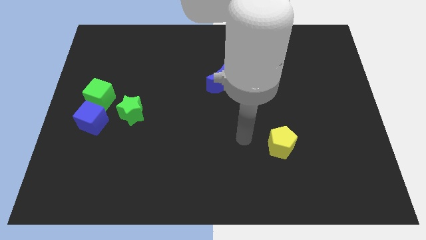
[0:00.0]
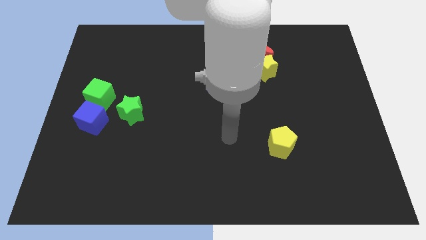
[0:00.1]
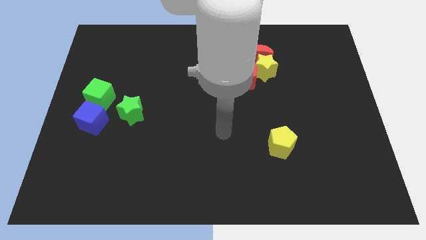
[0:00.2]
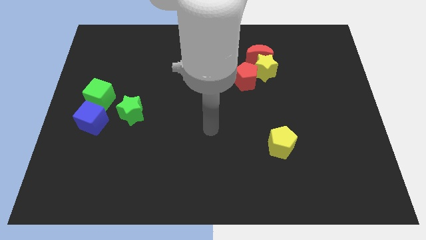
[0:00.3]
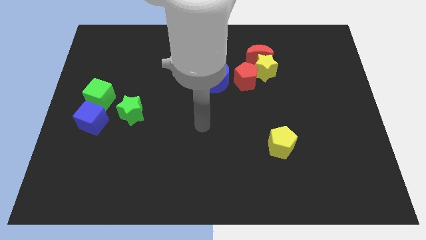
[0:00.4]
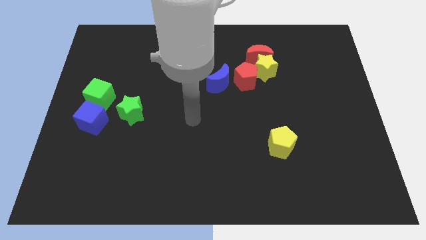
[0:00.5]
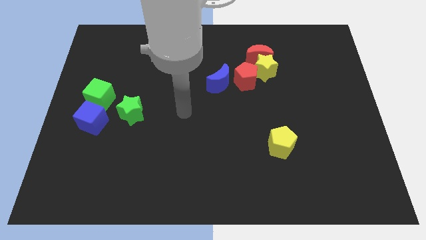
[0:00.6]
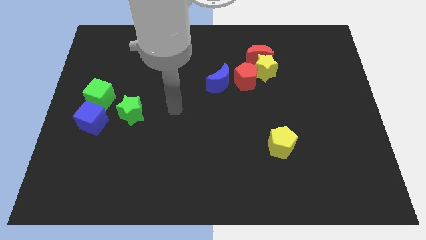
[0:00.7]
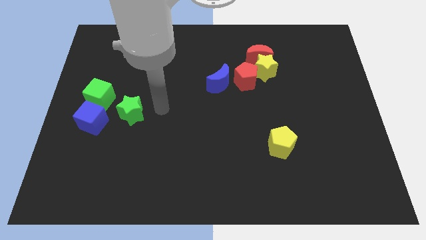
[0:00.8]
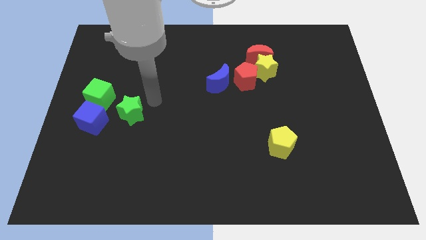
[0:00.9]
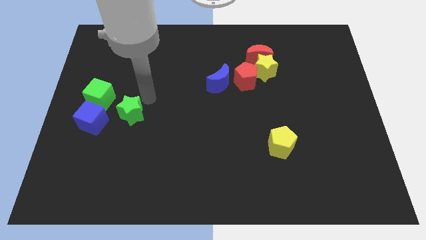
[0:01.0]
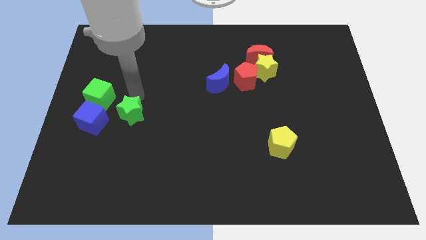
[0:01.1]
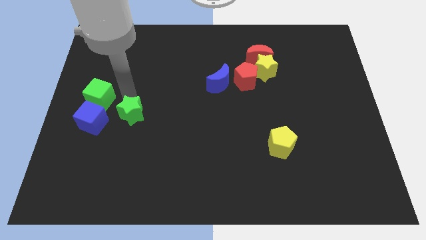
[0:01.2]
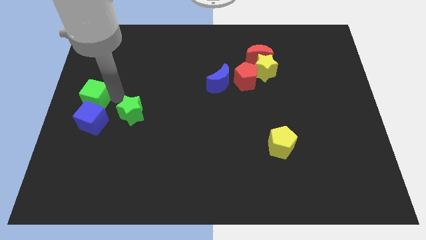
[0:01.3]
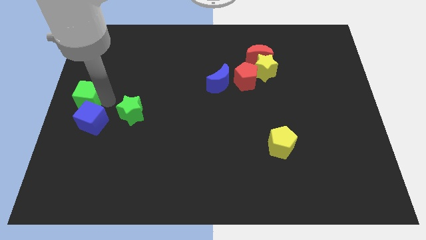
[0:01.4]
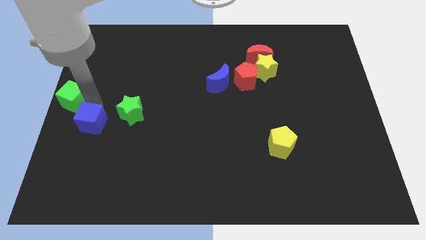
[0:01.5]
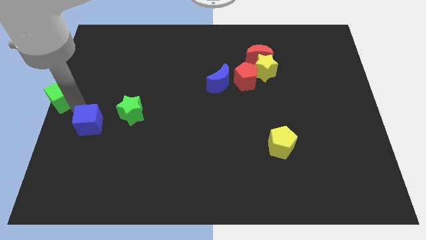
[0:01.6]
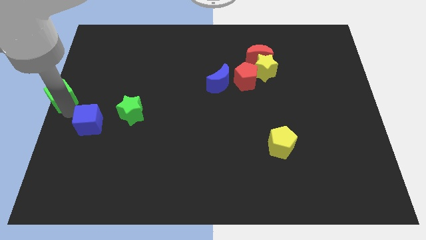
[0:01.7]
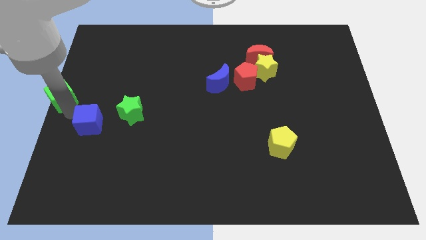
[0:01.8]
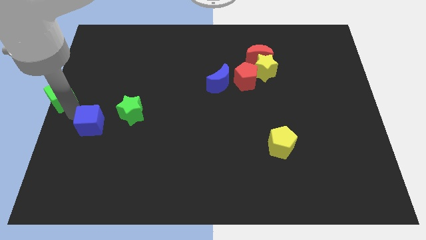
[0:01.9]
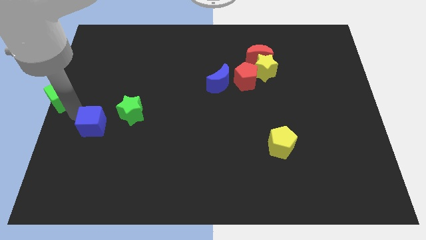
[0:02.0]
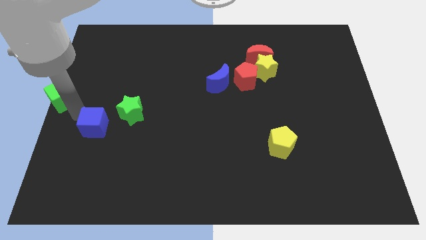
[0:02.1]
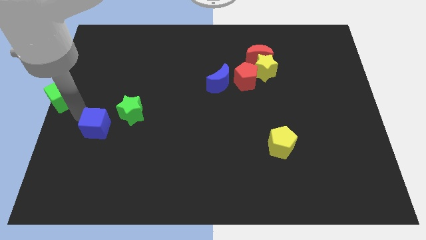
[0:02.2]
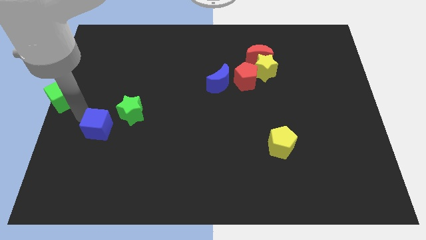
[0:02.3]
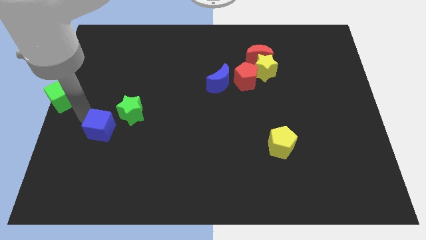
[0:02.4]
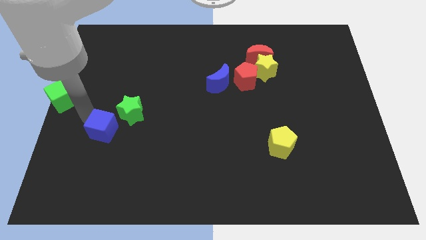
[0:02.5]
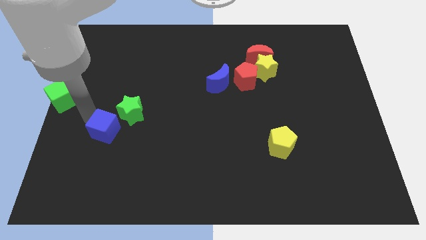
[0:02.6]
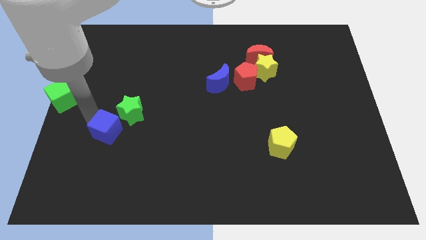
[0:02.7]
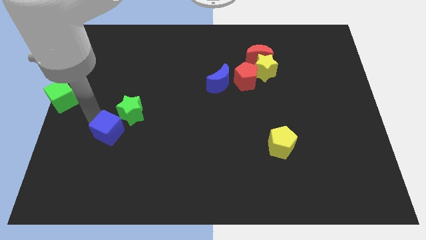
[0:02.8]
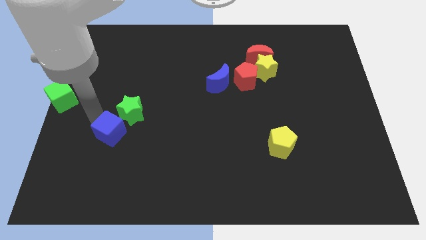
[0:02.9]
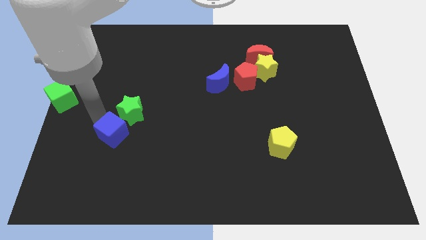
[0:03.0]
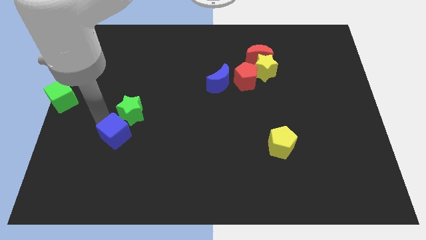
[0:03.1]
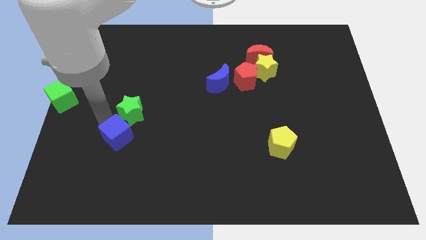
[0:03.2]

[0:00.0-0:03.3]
push the blue cube downwards and then to the right somewhat

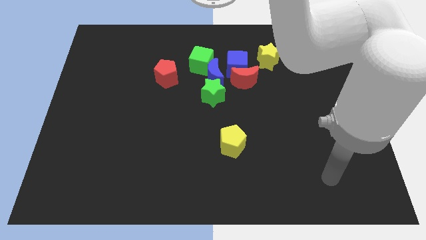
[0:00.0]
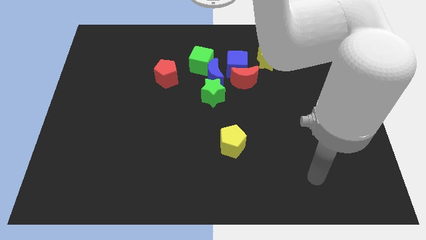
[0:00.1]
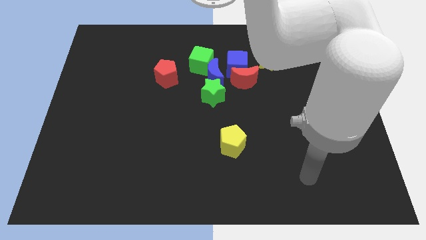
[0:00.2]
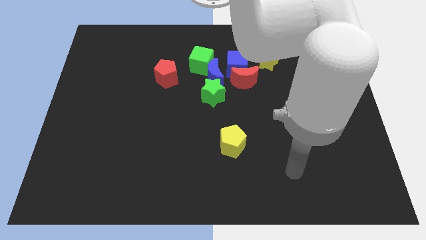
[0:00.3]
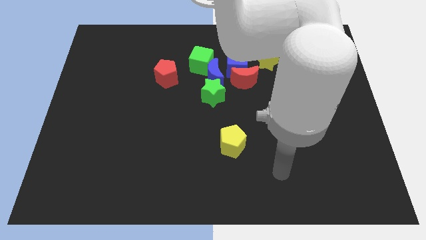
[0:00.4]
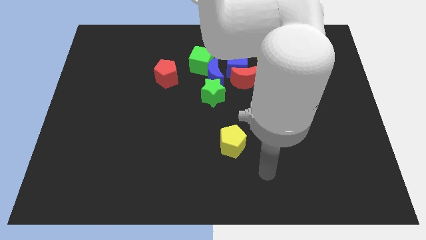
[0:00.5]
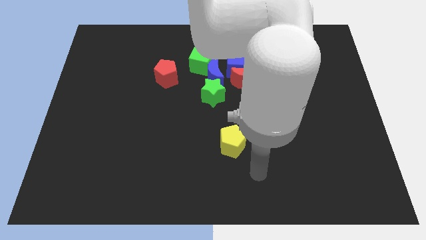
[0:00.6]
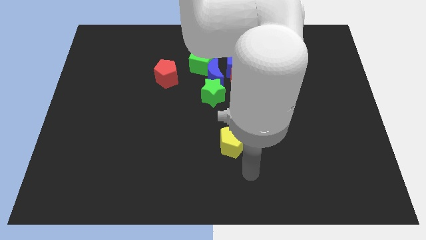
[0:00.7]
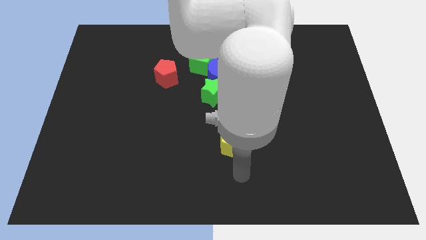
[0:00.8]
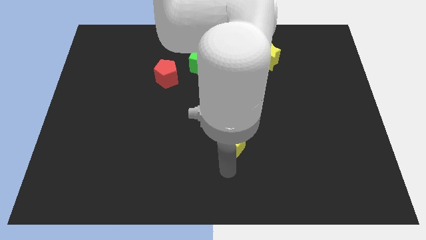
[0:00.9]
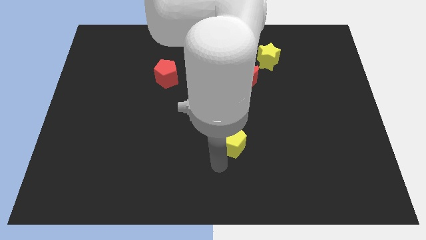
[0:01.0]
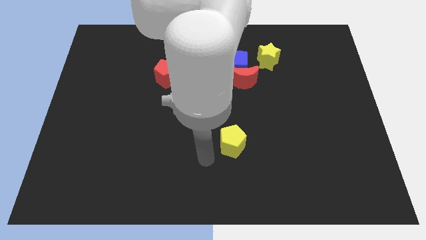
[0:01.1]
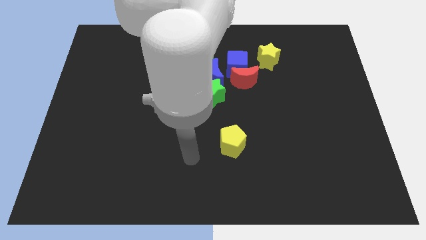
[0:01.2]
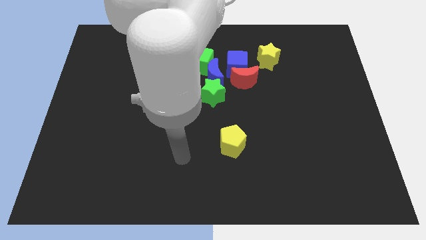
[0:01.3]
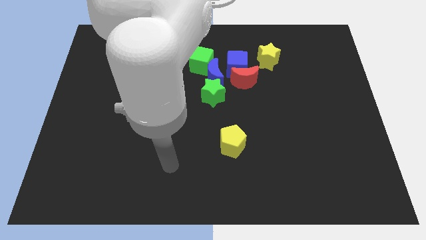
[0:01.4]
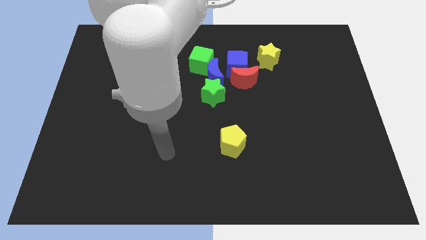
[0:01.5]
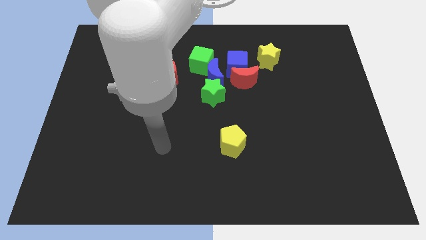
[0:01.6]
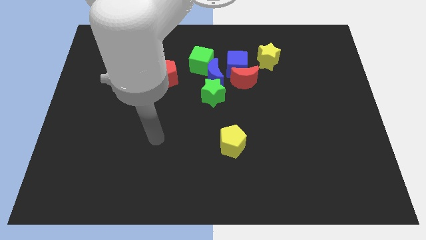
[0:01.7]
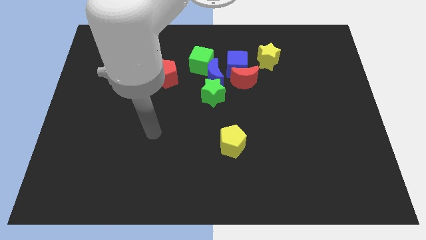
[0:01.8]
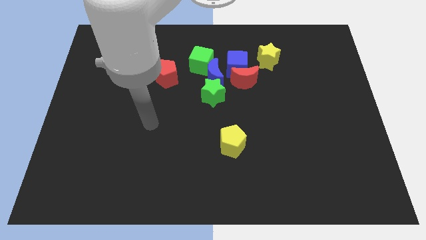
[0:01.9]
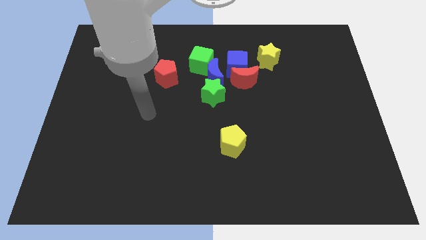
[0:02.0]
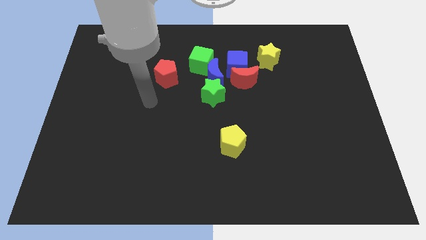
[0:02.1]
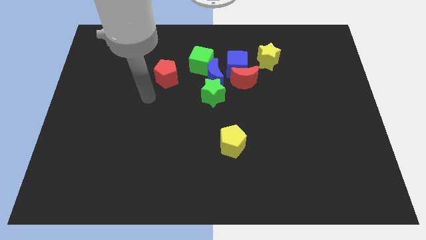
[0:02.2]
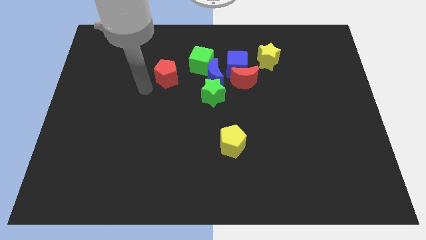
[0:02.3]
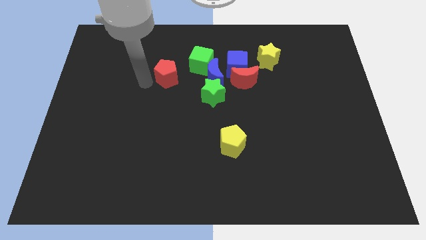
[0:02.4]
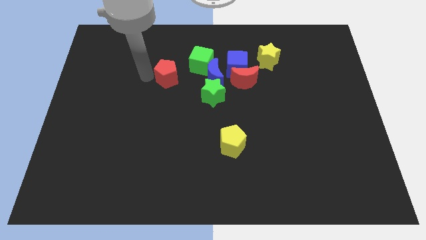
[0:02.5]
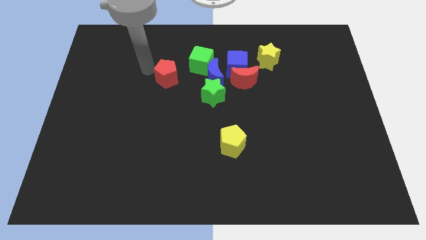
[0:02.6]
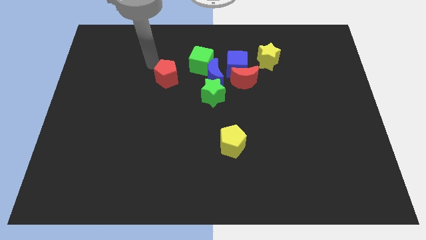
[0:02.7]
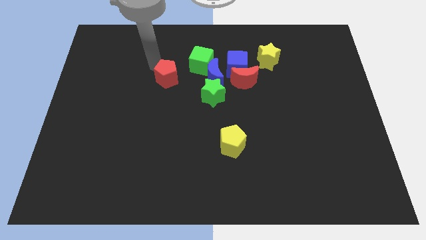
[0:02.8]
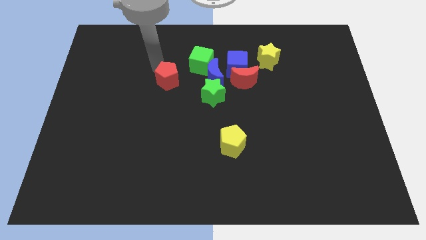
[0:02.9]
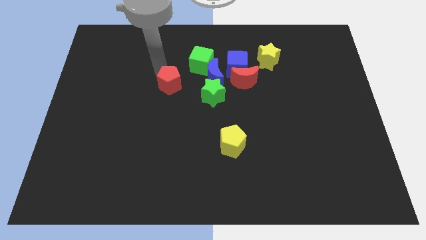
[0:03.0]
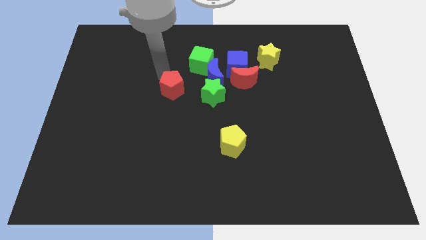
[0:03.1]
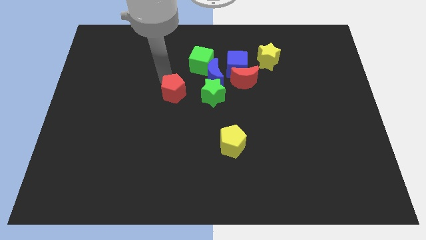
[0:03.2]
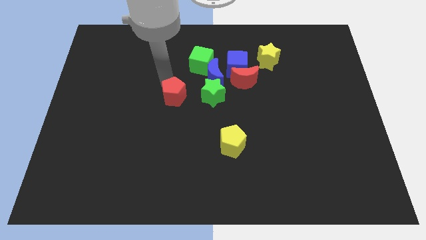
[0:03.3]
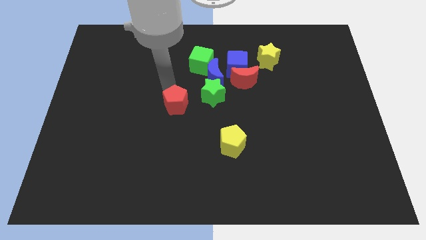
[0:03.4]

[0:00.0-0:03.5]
slightly move the red pentagon diagonally downwards and right

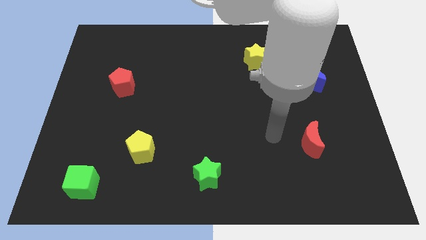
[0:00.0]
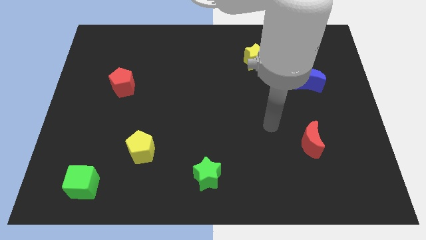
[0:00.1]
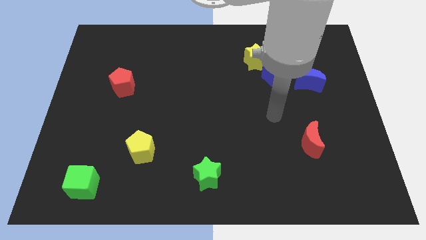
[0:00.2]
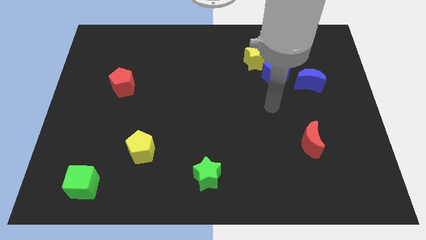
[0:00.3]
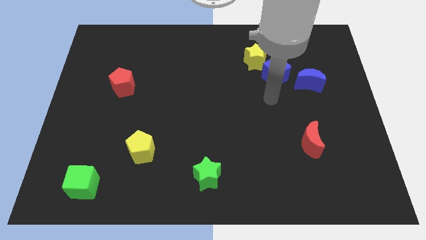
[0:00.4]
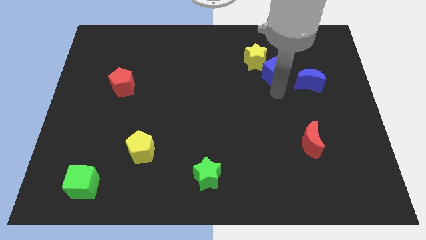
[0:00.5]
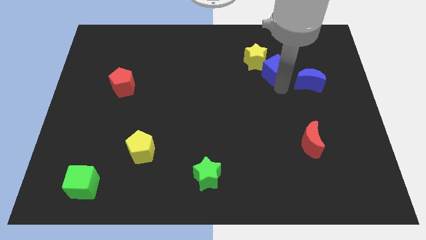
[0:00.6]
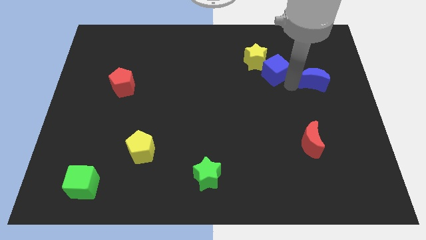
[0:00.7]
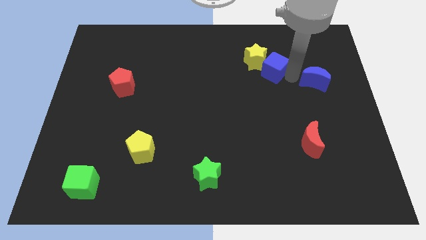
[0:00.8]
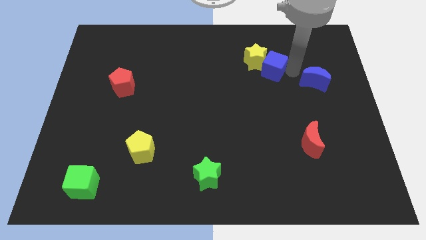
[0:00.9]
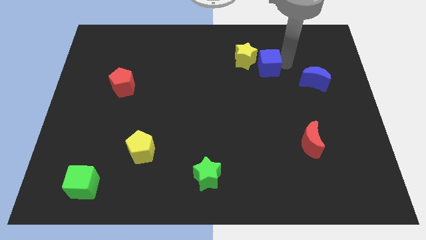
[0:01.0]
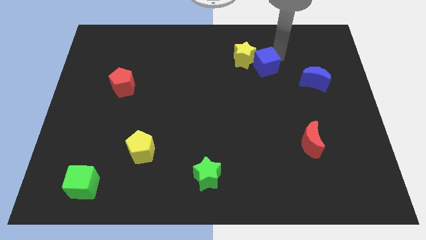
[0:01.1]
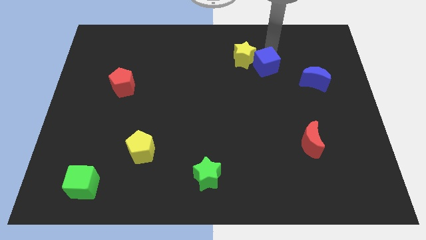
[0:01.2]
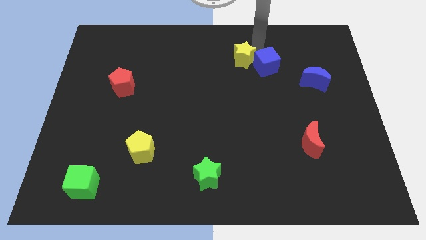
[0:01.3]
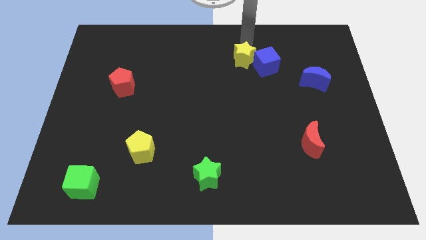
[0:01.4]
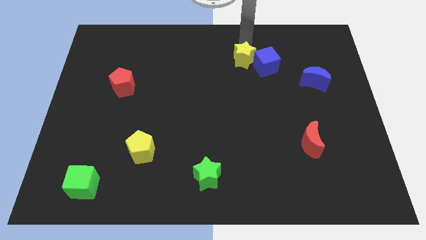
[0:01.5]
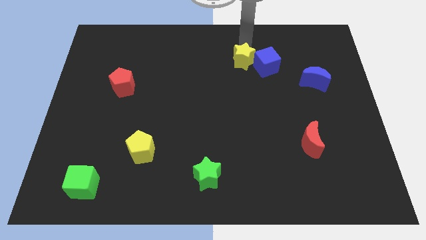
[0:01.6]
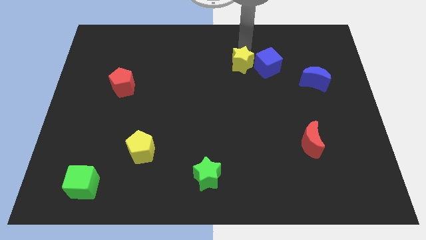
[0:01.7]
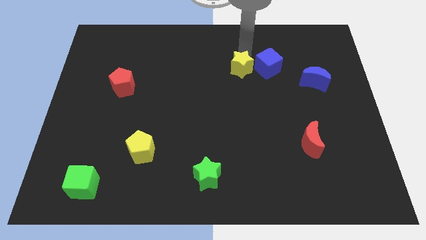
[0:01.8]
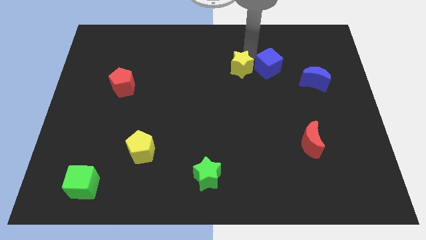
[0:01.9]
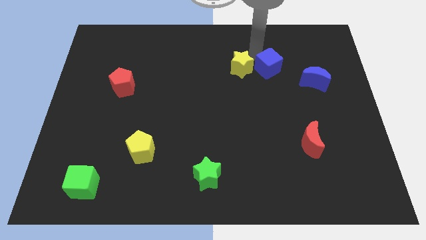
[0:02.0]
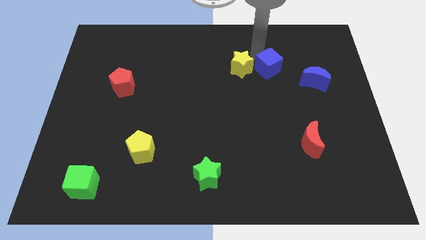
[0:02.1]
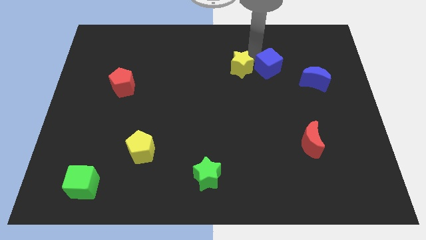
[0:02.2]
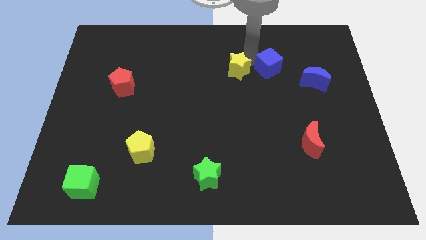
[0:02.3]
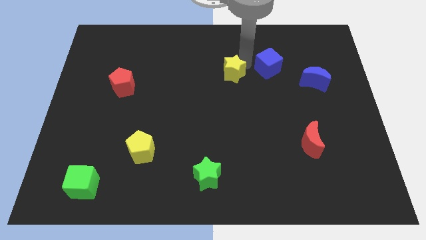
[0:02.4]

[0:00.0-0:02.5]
slightly move the yellow star diagonally downwards and to the left
